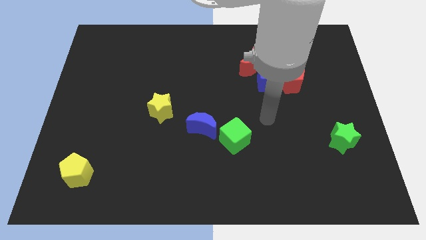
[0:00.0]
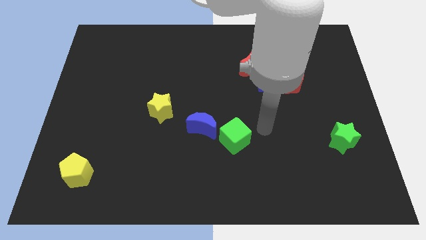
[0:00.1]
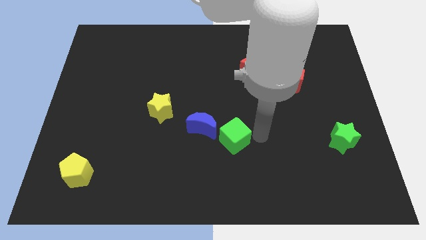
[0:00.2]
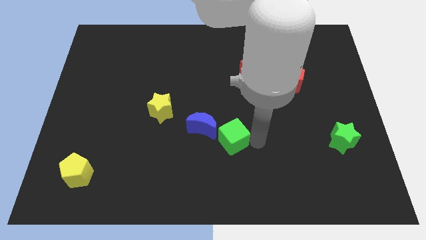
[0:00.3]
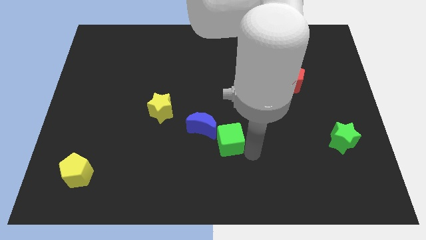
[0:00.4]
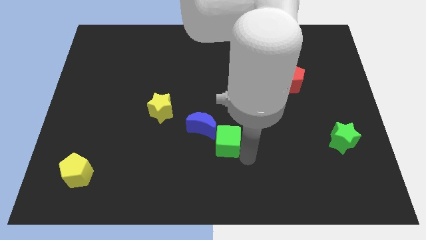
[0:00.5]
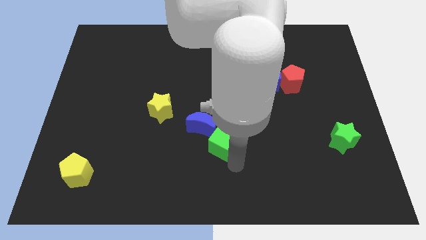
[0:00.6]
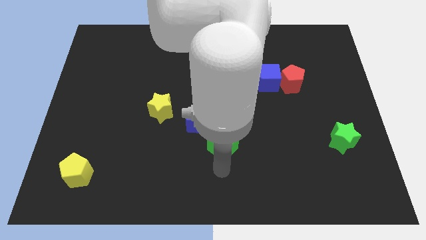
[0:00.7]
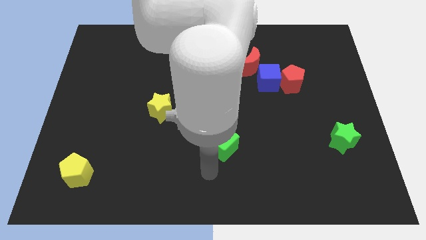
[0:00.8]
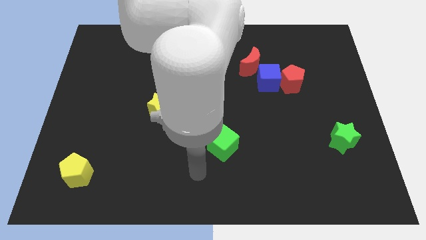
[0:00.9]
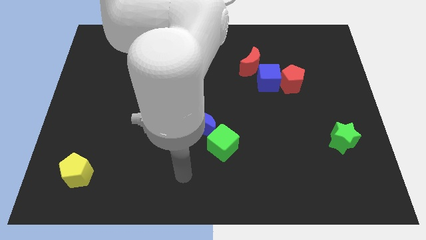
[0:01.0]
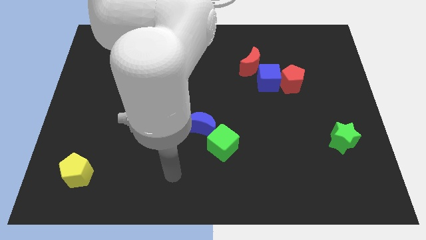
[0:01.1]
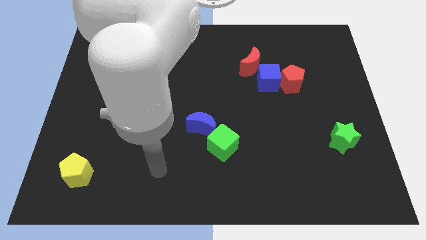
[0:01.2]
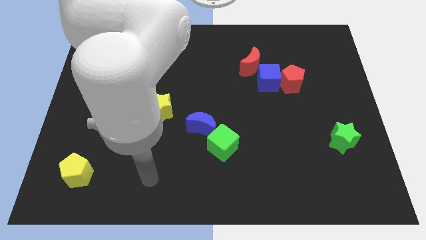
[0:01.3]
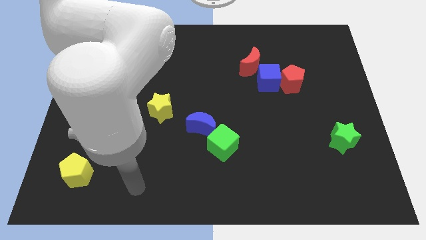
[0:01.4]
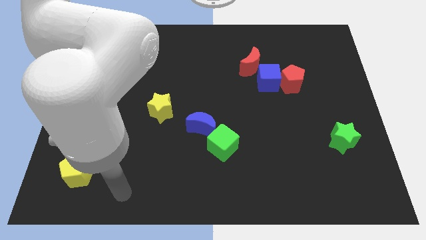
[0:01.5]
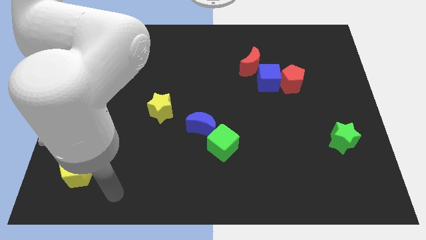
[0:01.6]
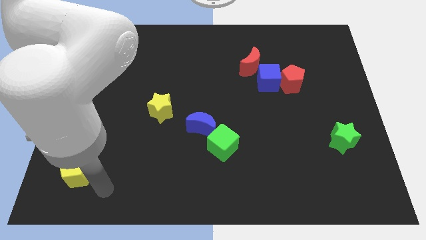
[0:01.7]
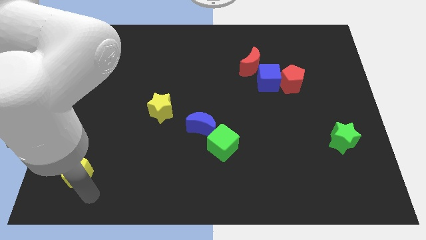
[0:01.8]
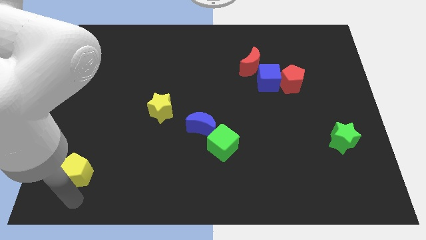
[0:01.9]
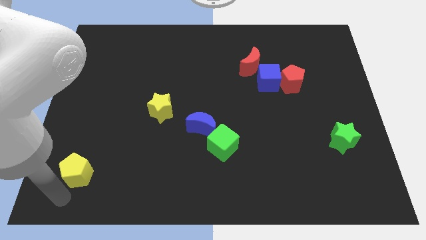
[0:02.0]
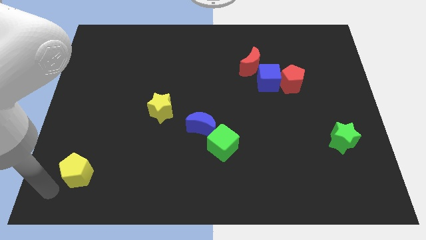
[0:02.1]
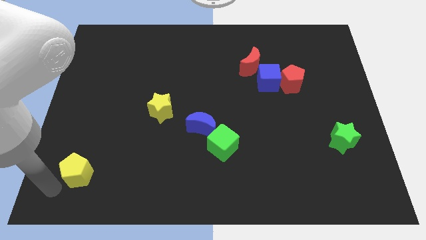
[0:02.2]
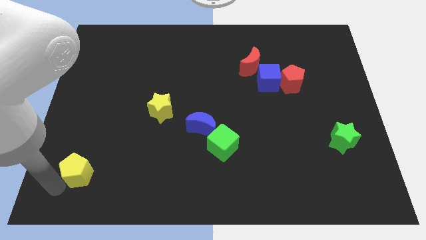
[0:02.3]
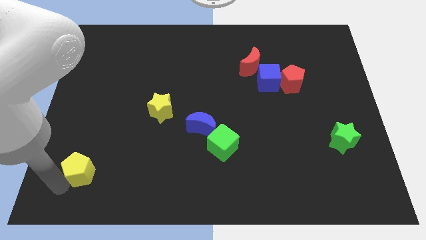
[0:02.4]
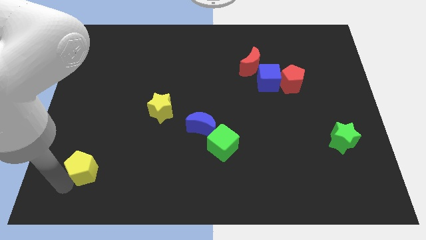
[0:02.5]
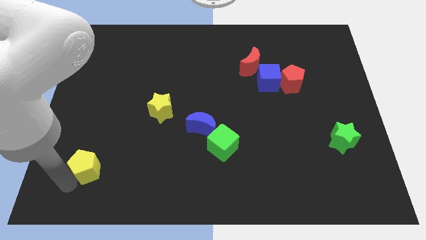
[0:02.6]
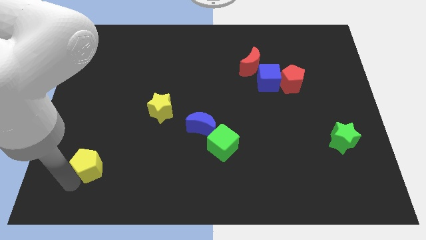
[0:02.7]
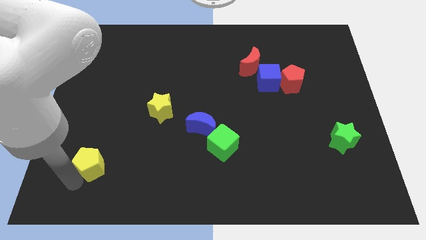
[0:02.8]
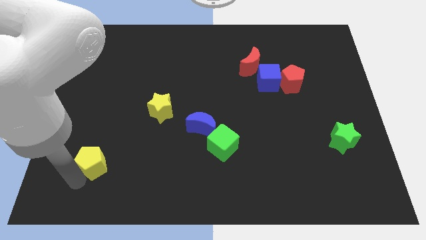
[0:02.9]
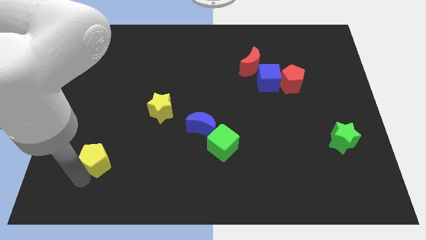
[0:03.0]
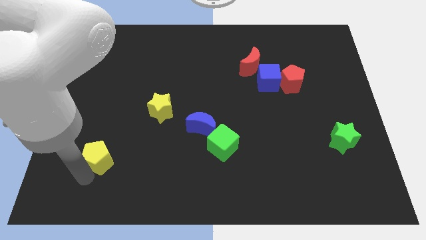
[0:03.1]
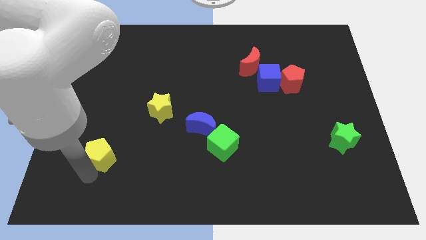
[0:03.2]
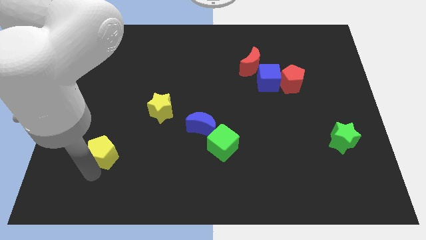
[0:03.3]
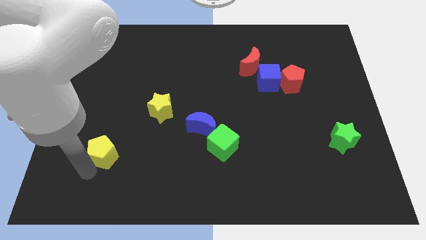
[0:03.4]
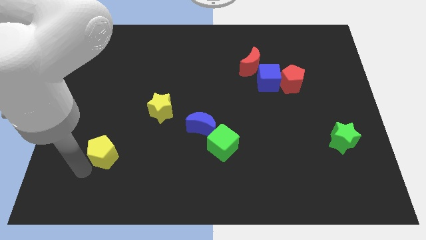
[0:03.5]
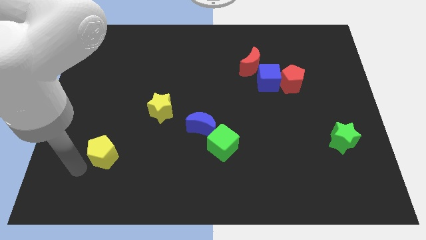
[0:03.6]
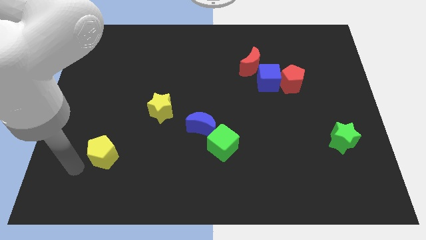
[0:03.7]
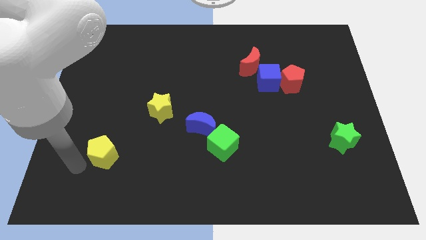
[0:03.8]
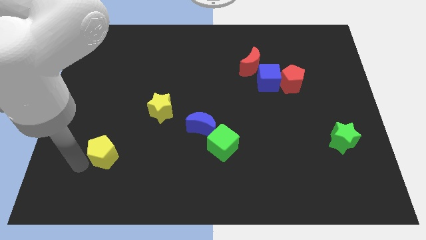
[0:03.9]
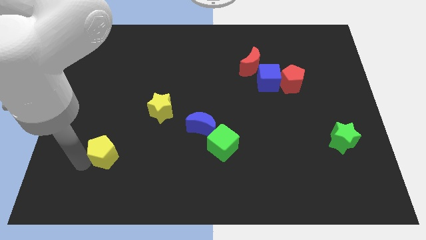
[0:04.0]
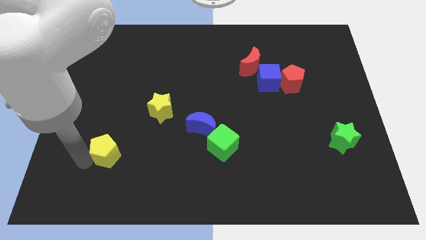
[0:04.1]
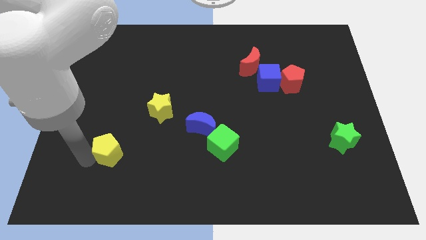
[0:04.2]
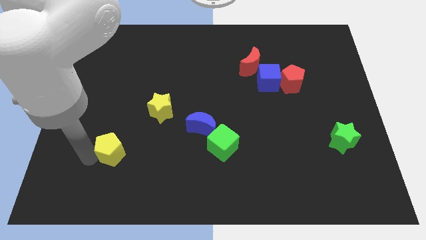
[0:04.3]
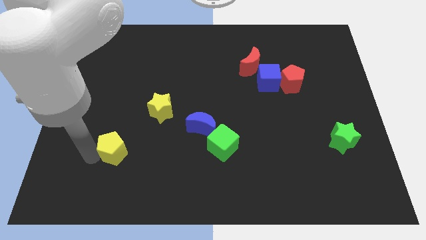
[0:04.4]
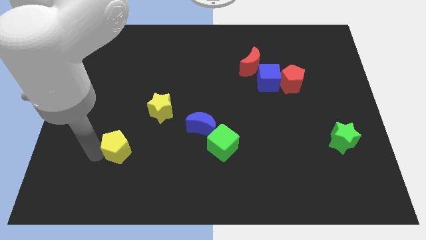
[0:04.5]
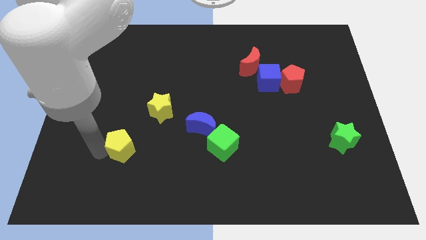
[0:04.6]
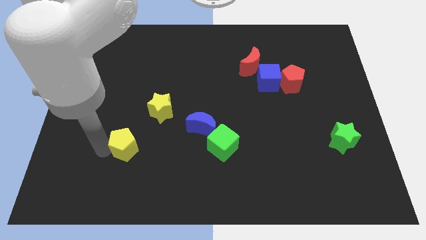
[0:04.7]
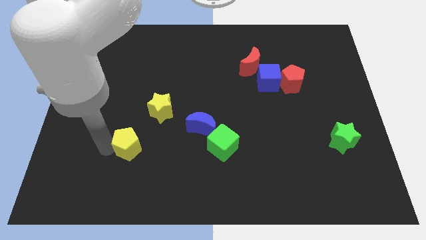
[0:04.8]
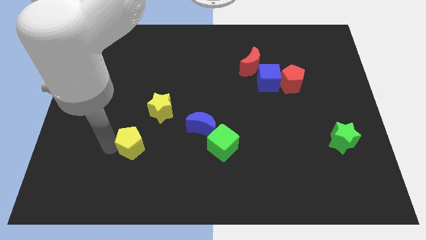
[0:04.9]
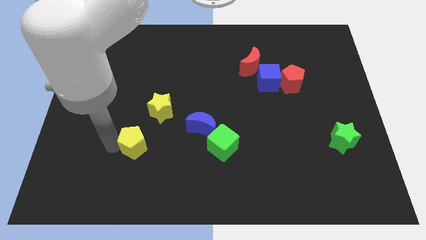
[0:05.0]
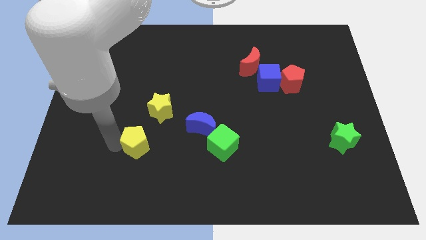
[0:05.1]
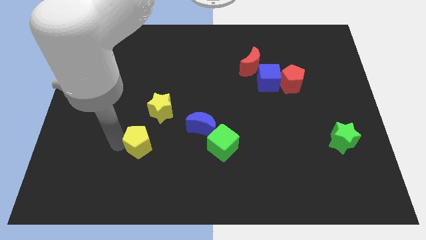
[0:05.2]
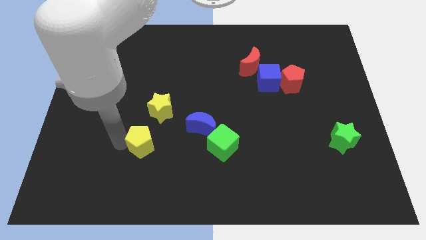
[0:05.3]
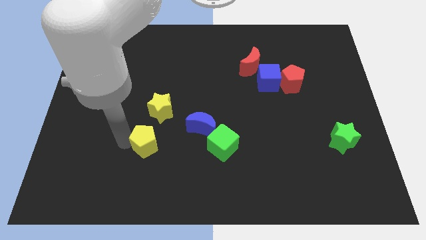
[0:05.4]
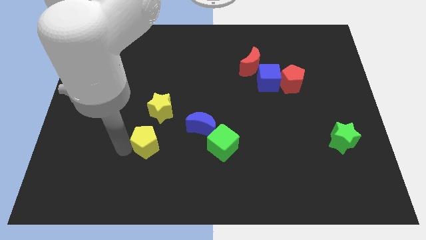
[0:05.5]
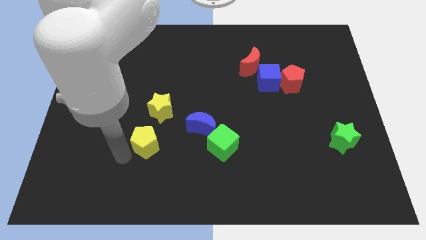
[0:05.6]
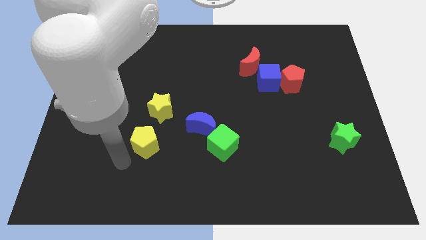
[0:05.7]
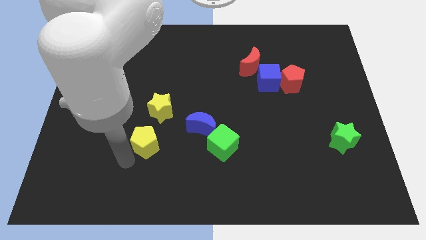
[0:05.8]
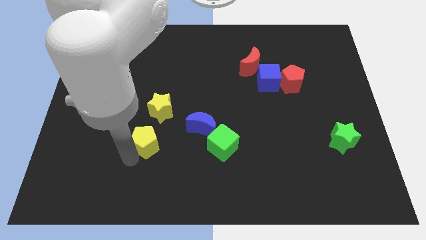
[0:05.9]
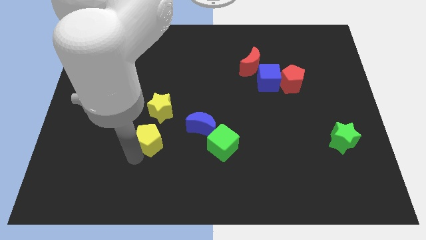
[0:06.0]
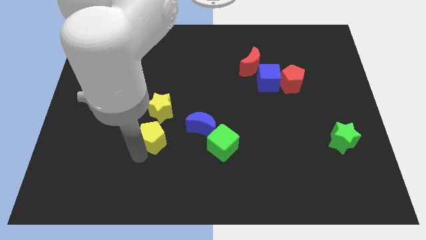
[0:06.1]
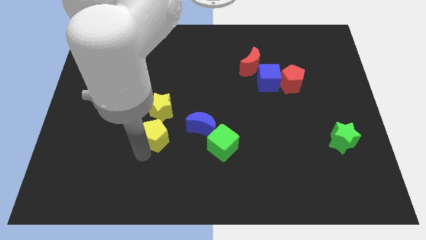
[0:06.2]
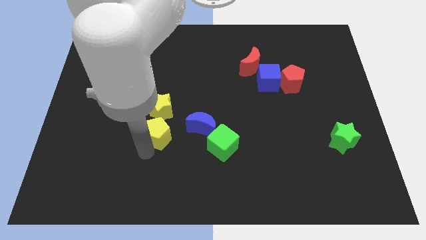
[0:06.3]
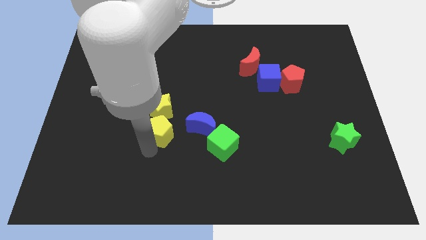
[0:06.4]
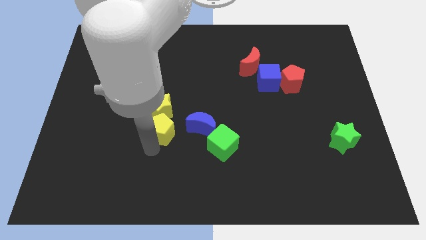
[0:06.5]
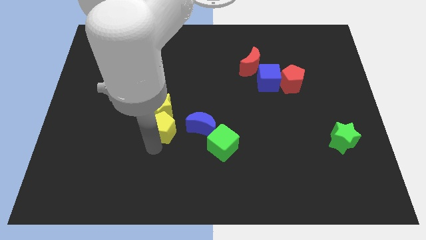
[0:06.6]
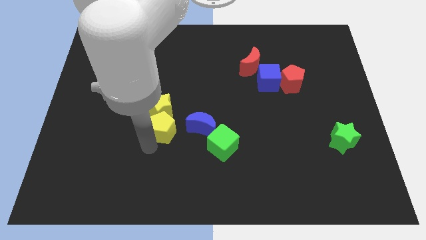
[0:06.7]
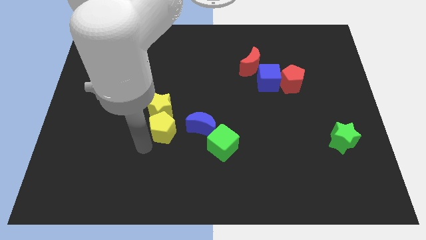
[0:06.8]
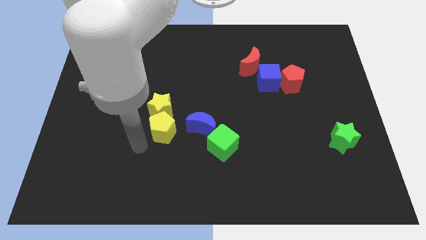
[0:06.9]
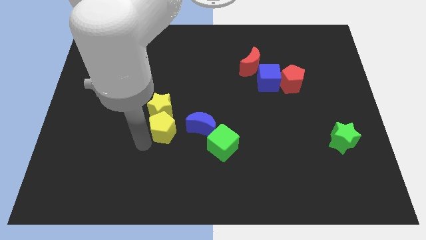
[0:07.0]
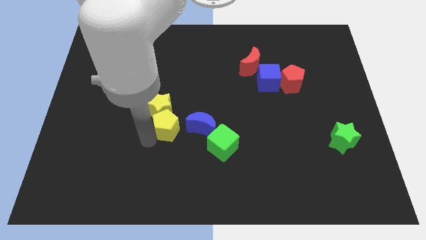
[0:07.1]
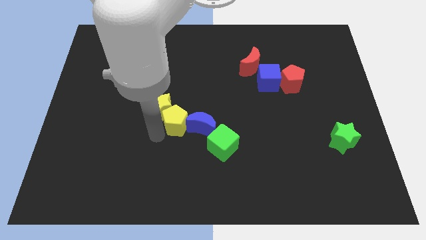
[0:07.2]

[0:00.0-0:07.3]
move the yellow pentagon to the center
